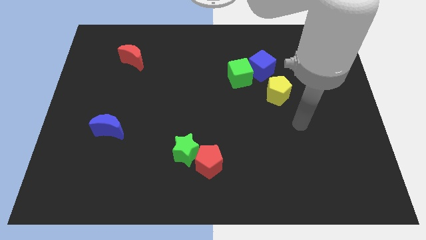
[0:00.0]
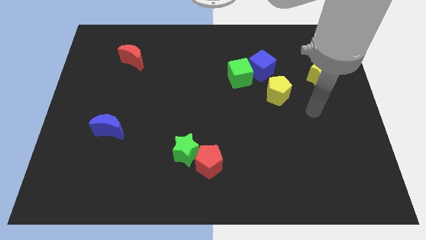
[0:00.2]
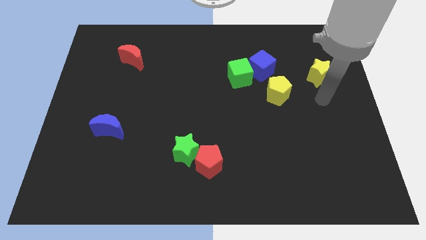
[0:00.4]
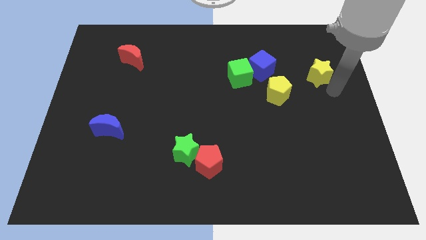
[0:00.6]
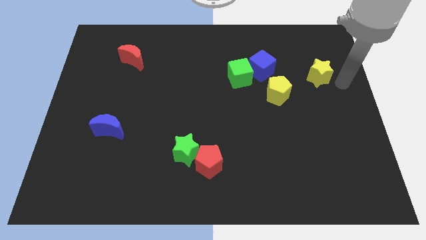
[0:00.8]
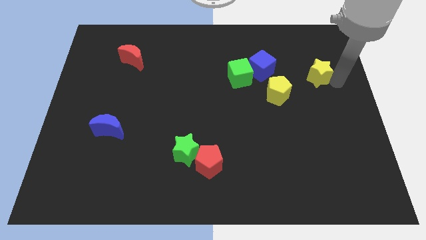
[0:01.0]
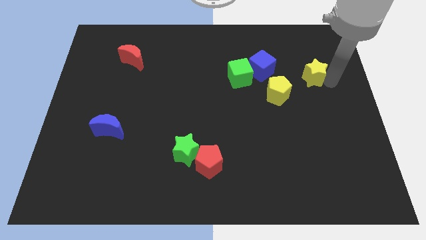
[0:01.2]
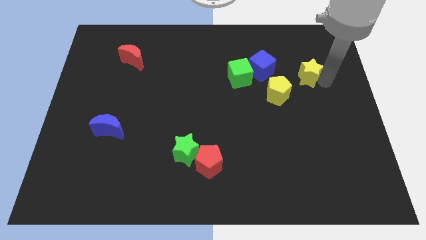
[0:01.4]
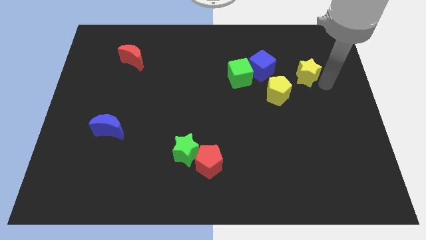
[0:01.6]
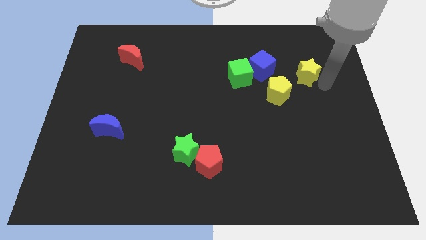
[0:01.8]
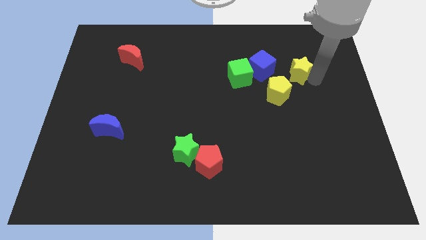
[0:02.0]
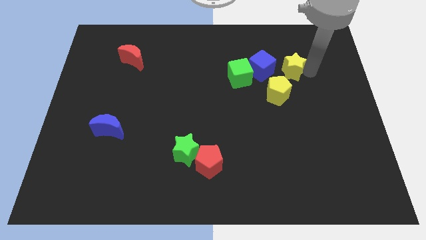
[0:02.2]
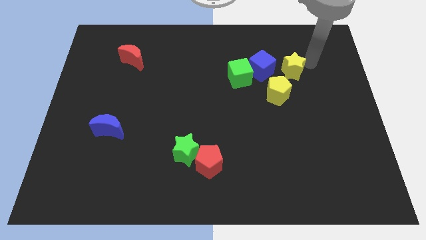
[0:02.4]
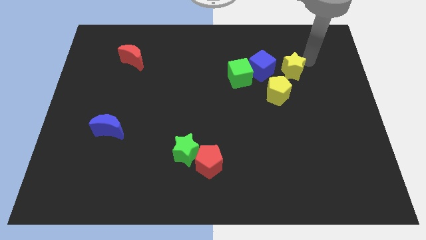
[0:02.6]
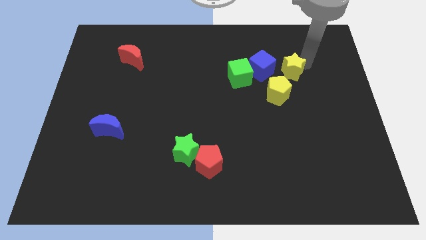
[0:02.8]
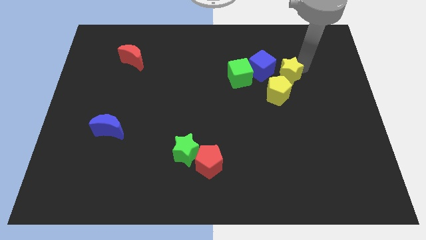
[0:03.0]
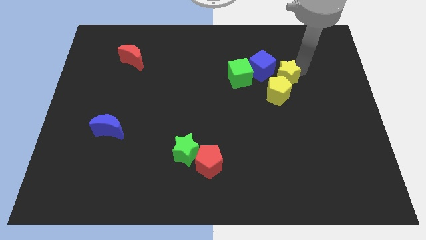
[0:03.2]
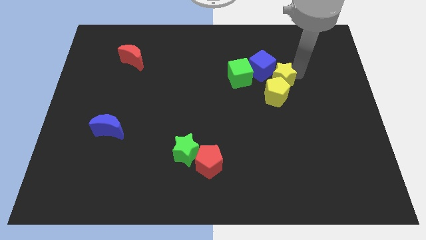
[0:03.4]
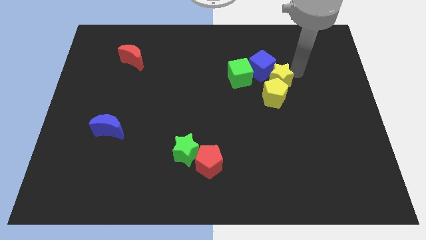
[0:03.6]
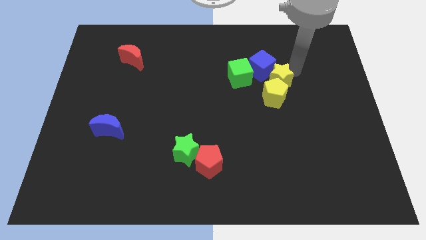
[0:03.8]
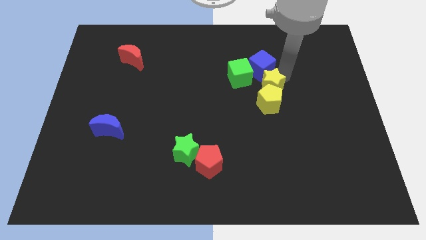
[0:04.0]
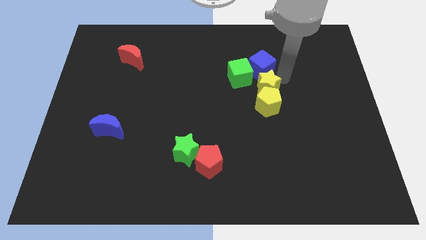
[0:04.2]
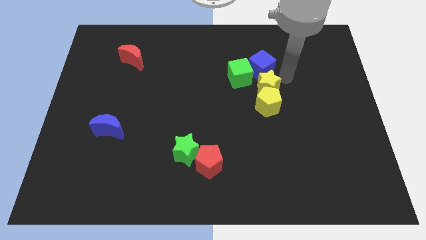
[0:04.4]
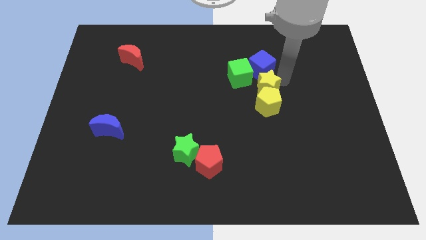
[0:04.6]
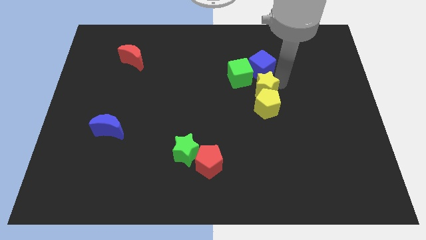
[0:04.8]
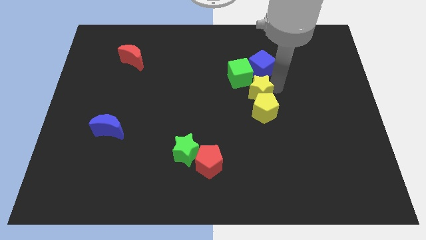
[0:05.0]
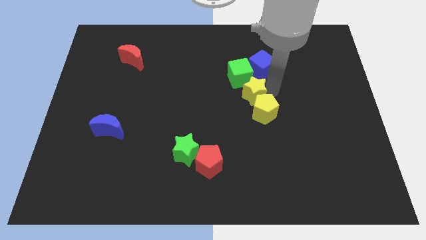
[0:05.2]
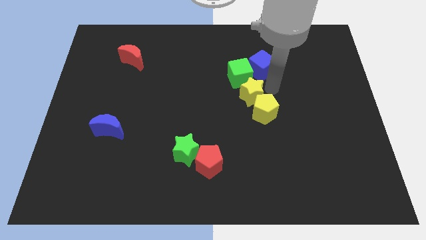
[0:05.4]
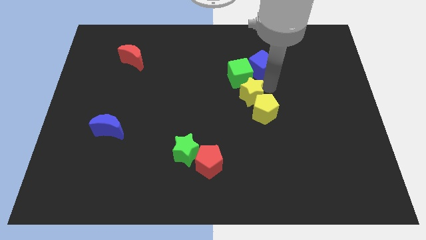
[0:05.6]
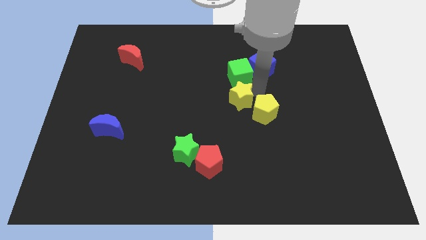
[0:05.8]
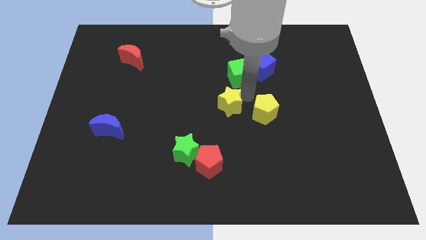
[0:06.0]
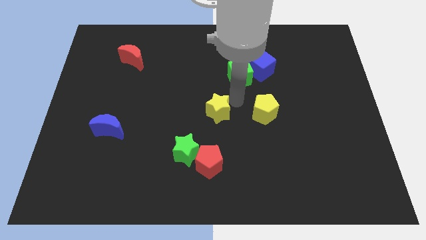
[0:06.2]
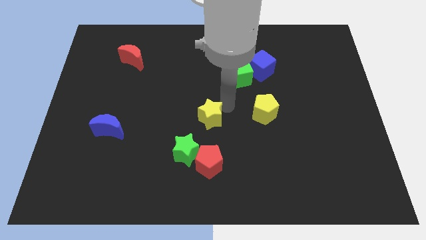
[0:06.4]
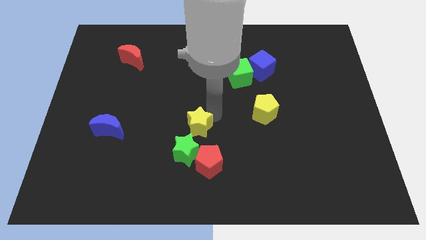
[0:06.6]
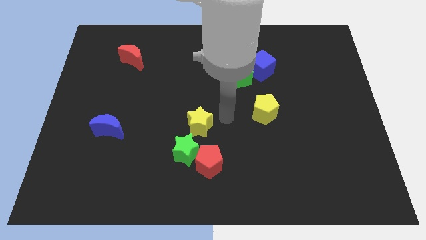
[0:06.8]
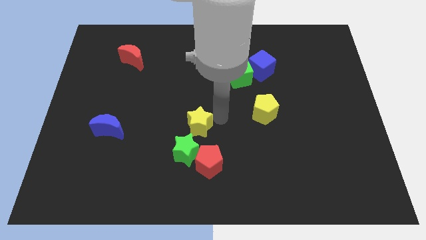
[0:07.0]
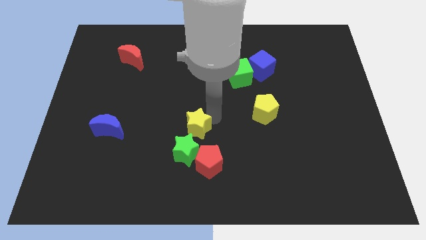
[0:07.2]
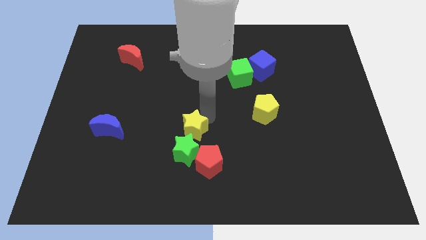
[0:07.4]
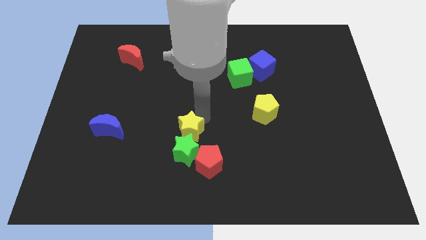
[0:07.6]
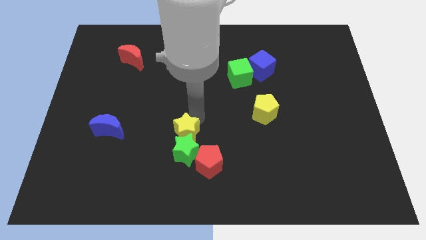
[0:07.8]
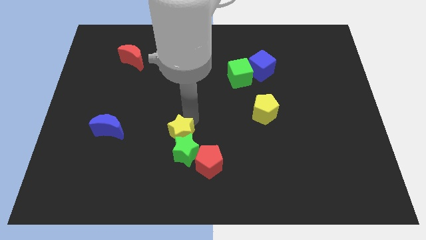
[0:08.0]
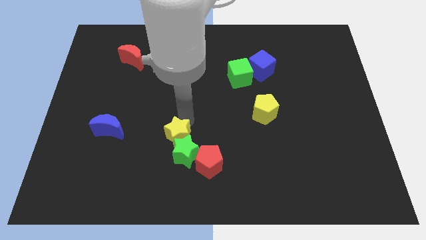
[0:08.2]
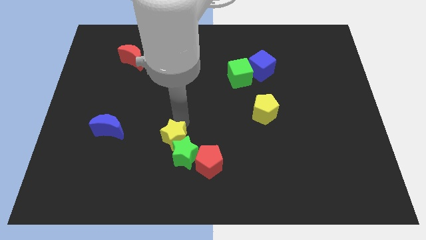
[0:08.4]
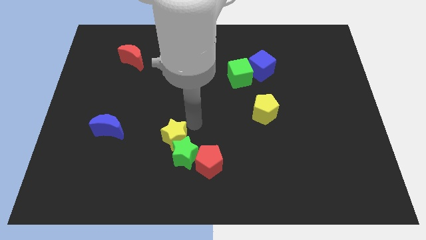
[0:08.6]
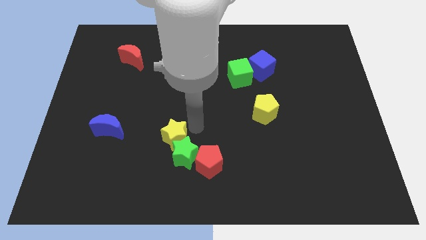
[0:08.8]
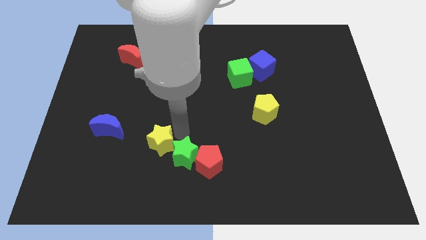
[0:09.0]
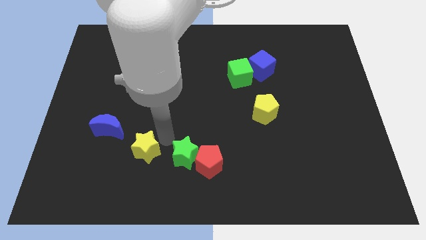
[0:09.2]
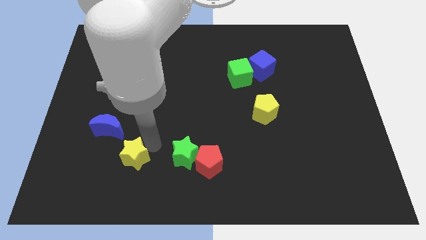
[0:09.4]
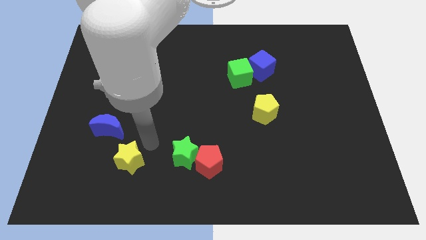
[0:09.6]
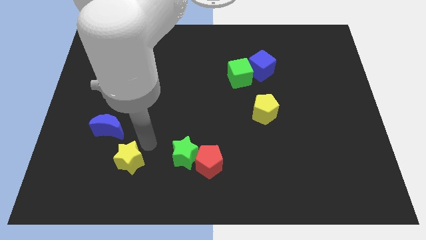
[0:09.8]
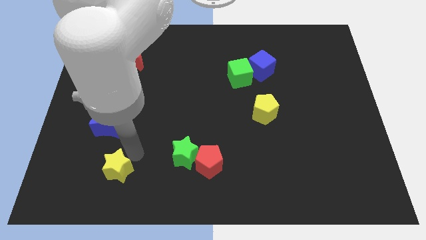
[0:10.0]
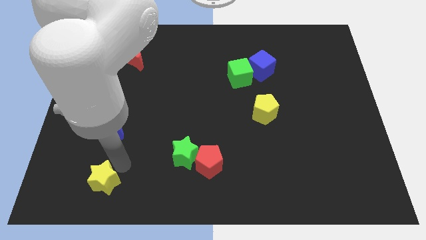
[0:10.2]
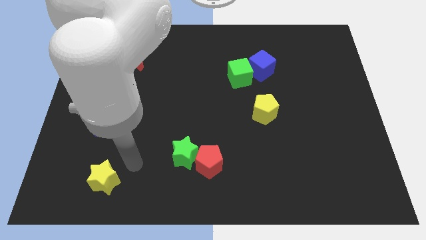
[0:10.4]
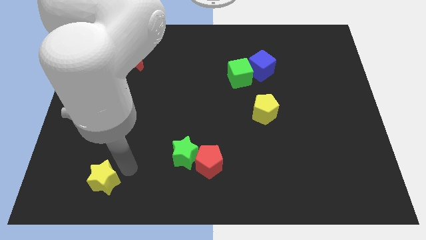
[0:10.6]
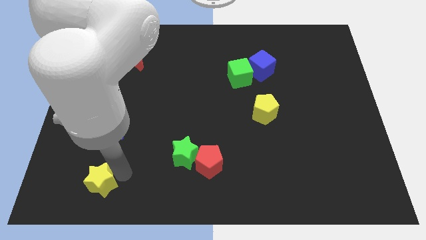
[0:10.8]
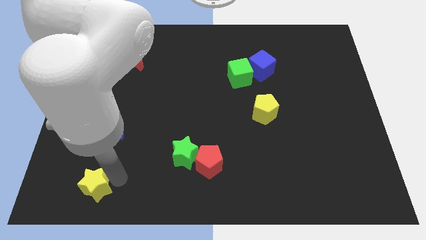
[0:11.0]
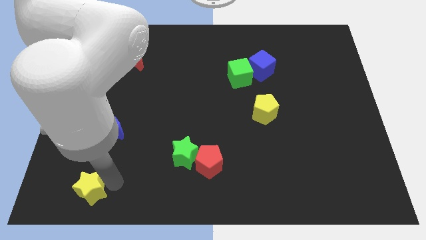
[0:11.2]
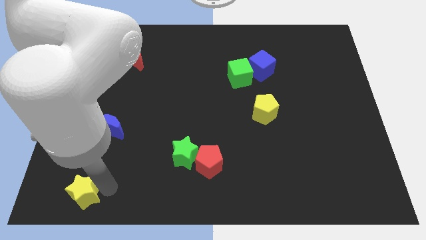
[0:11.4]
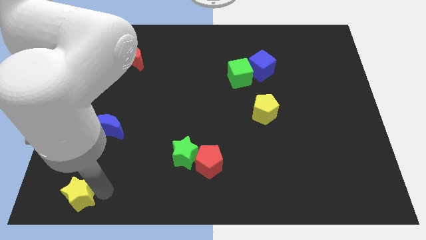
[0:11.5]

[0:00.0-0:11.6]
put the yellow star to the bottom left

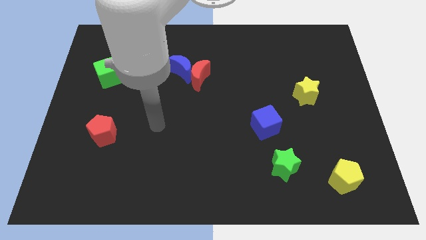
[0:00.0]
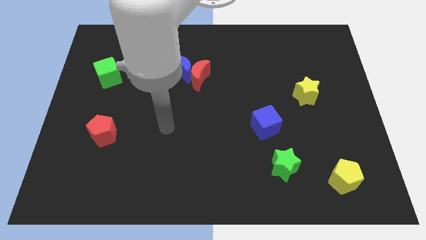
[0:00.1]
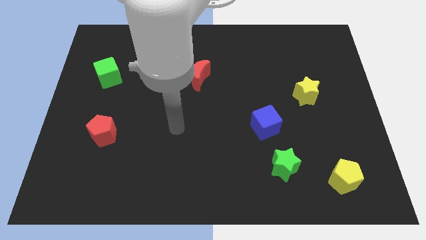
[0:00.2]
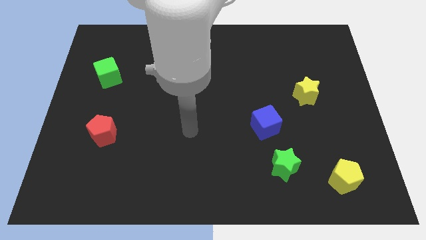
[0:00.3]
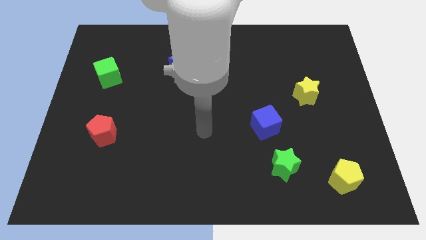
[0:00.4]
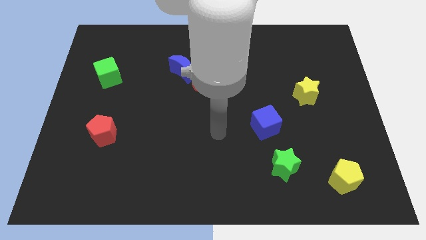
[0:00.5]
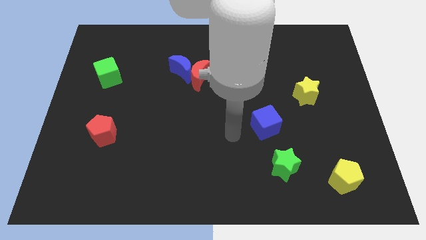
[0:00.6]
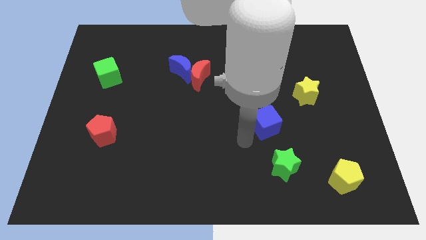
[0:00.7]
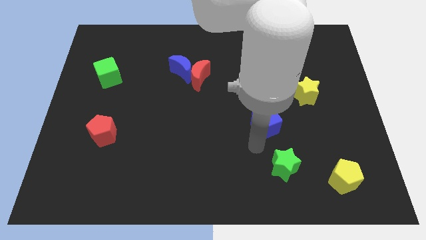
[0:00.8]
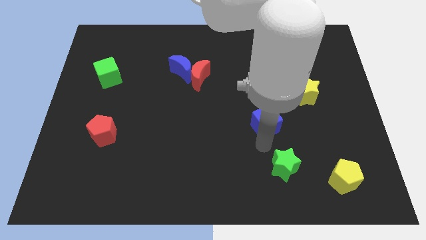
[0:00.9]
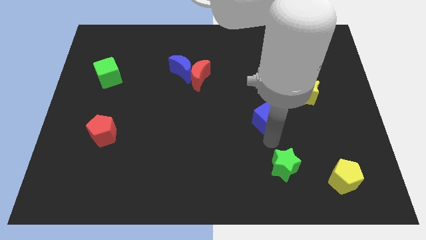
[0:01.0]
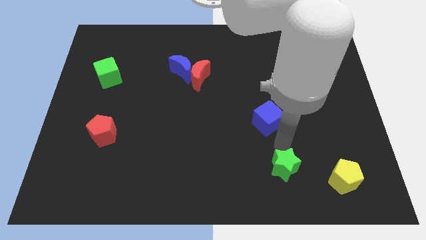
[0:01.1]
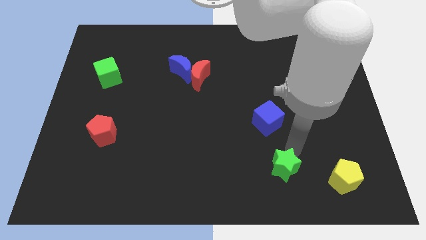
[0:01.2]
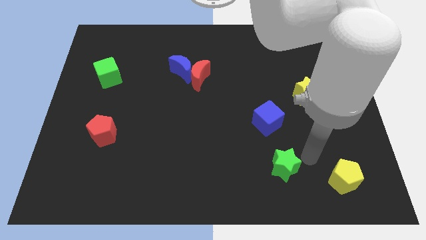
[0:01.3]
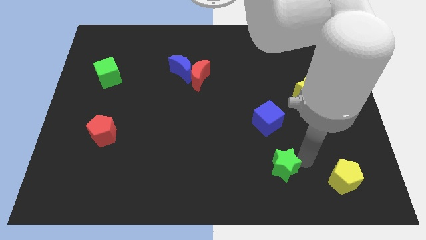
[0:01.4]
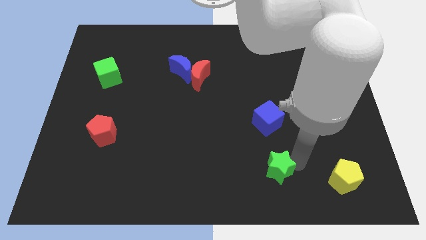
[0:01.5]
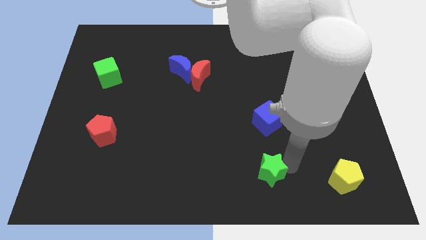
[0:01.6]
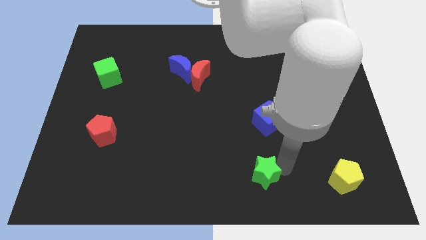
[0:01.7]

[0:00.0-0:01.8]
move the green star to the bottom side

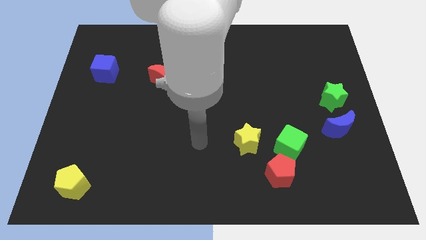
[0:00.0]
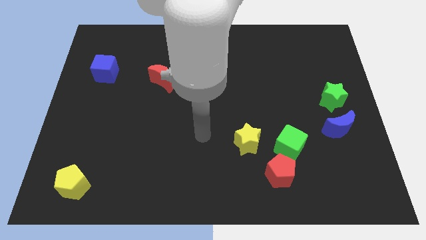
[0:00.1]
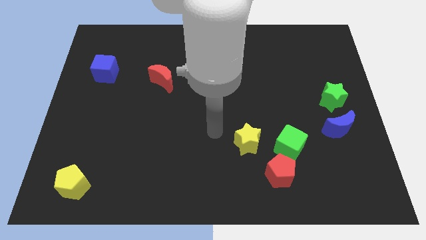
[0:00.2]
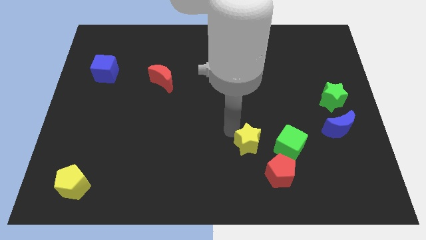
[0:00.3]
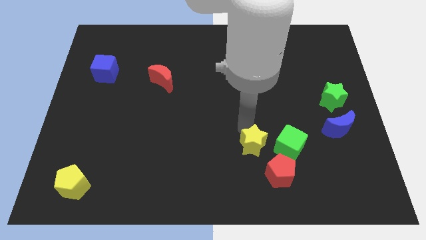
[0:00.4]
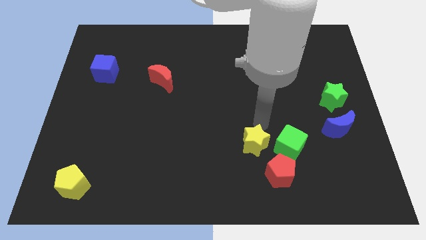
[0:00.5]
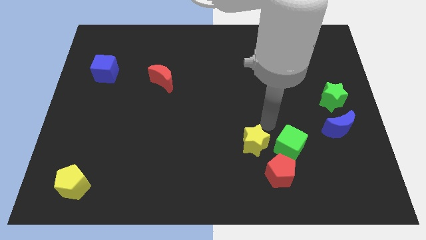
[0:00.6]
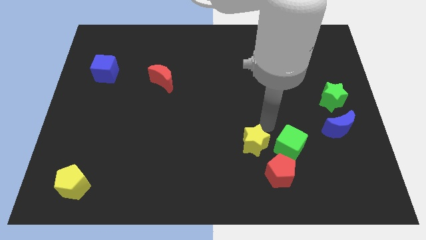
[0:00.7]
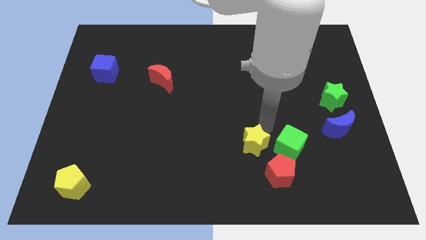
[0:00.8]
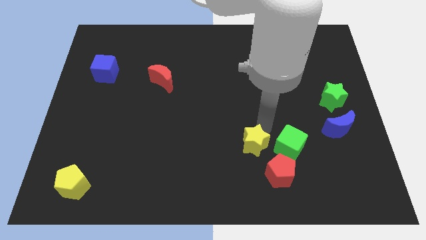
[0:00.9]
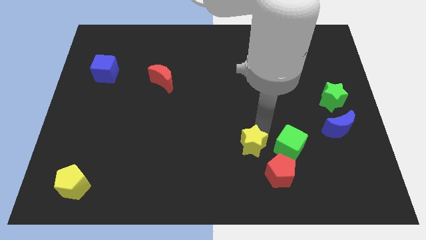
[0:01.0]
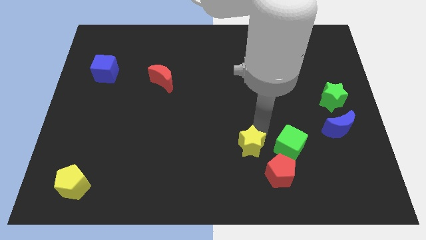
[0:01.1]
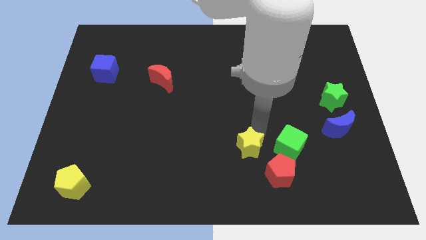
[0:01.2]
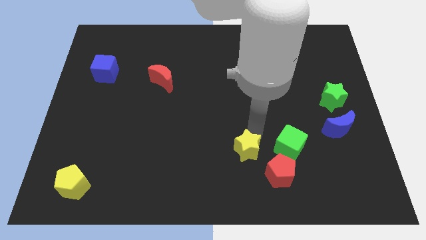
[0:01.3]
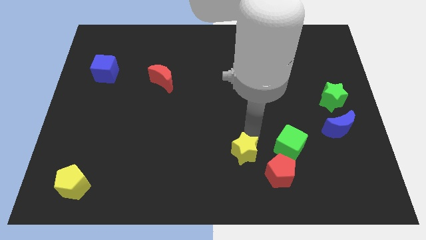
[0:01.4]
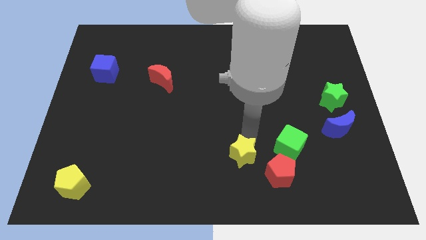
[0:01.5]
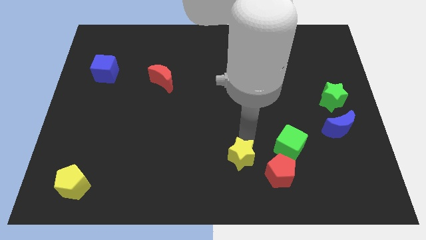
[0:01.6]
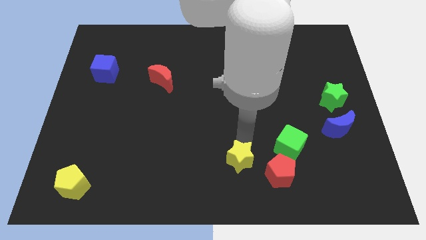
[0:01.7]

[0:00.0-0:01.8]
put the yellow star to the bottom side
